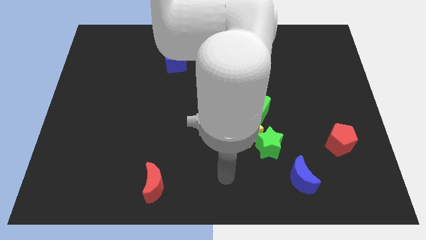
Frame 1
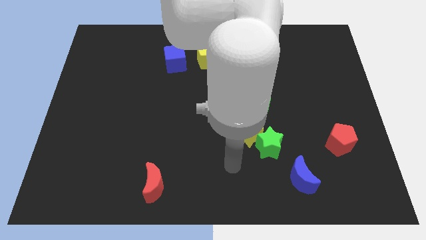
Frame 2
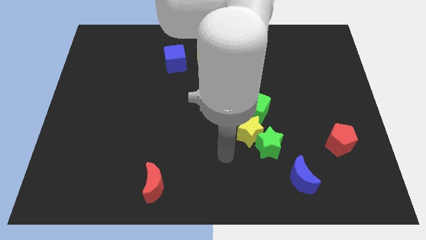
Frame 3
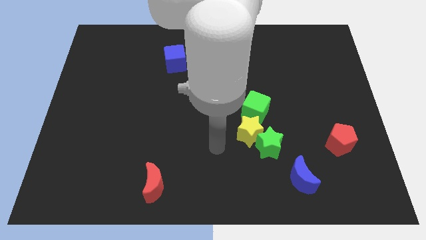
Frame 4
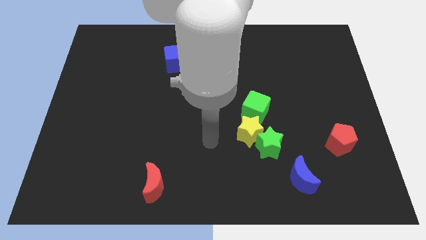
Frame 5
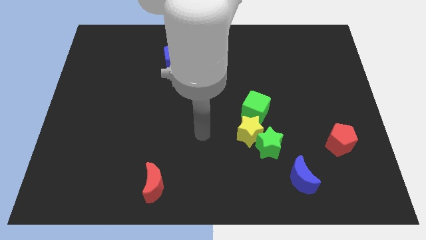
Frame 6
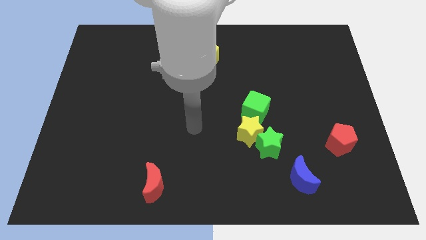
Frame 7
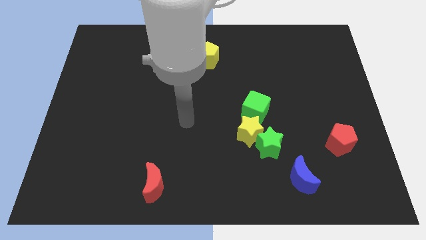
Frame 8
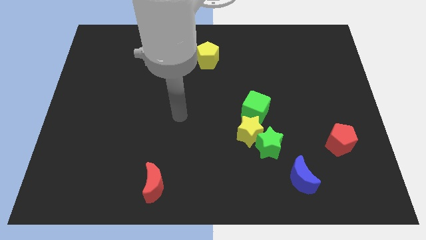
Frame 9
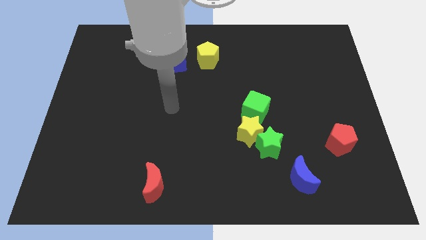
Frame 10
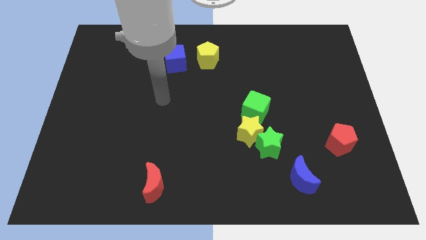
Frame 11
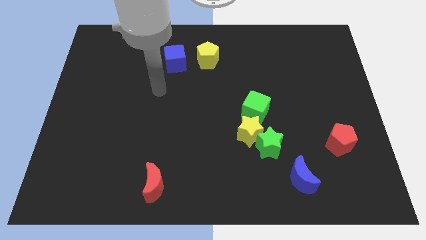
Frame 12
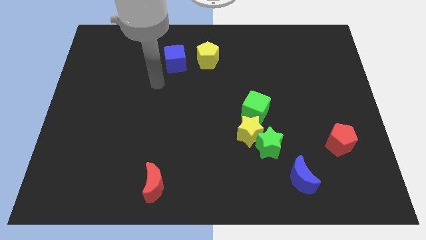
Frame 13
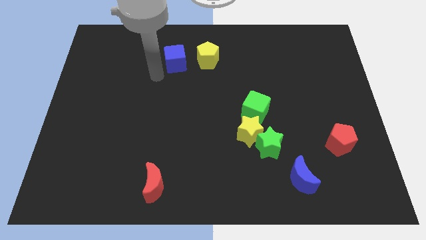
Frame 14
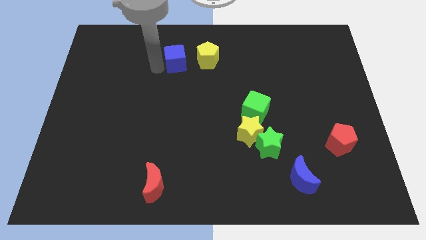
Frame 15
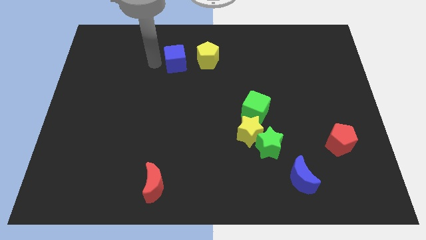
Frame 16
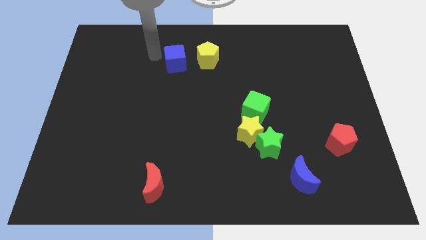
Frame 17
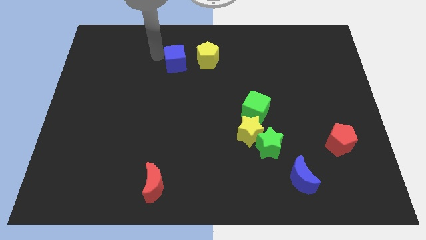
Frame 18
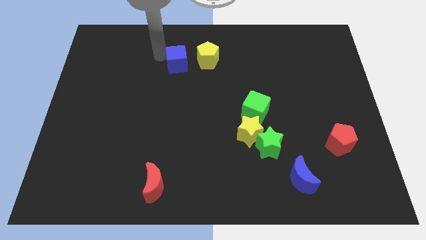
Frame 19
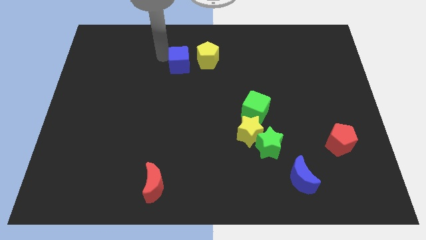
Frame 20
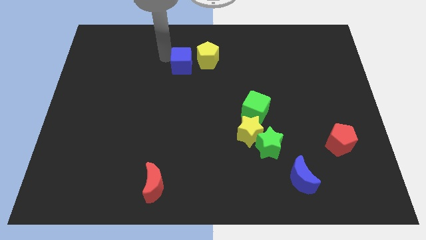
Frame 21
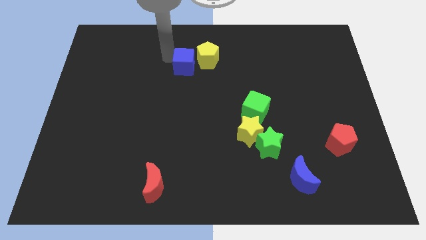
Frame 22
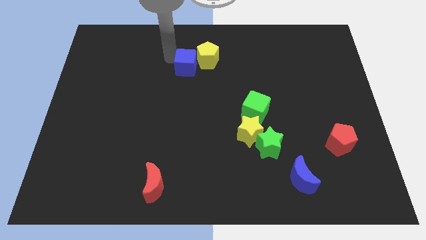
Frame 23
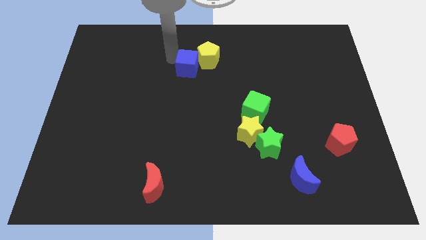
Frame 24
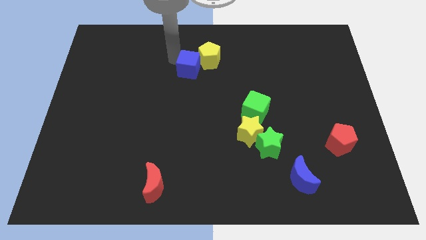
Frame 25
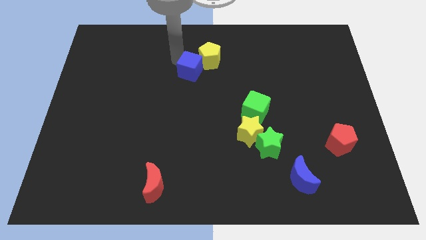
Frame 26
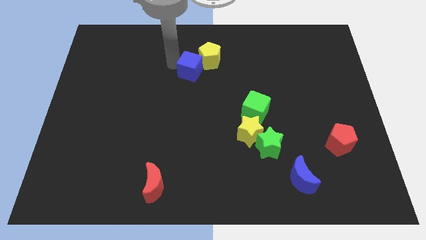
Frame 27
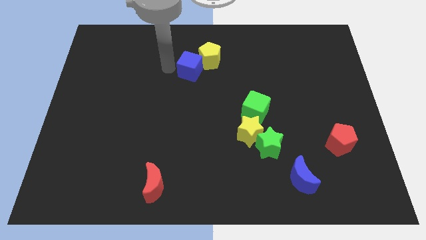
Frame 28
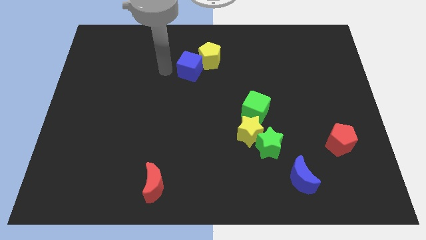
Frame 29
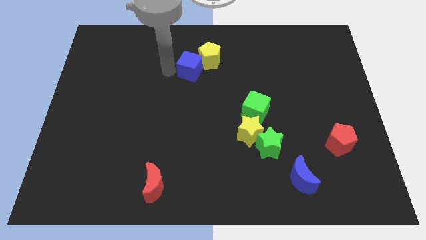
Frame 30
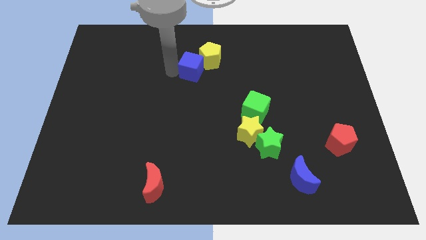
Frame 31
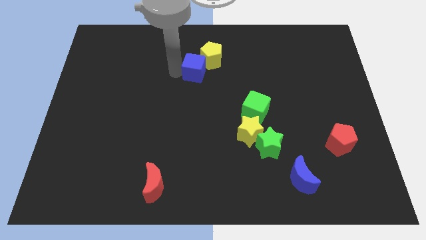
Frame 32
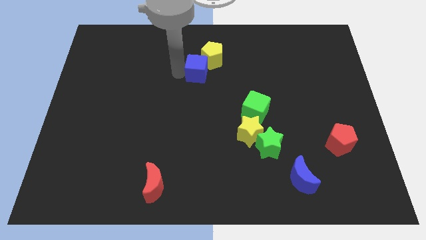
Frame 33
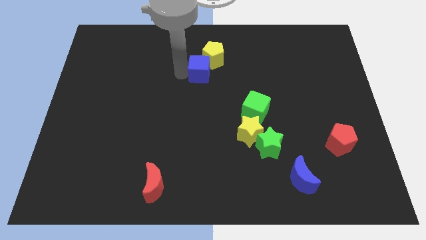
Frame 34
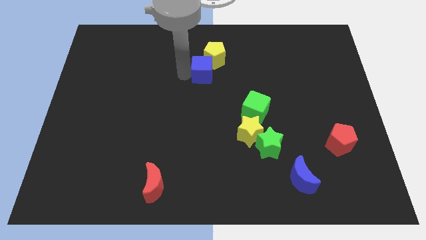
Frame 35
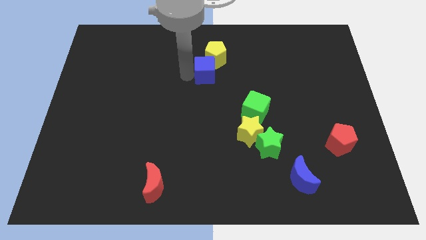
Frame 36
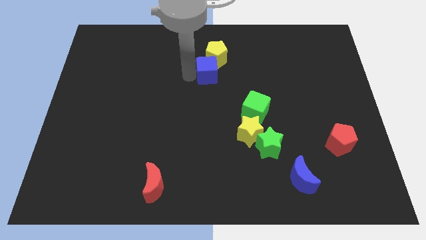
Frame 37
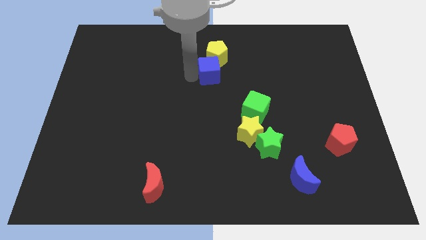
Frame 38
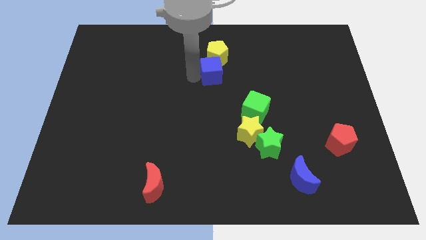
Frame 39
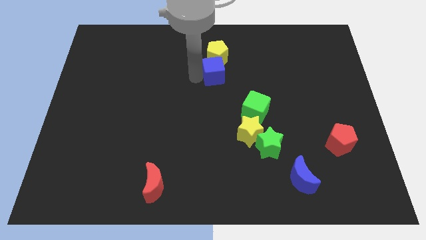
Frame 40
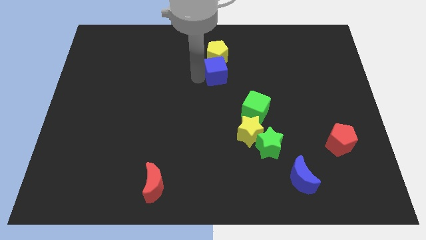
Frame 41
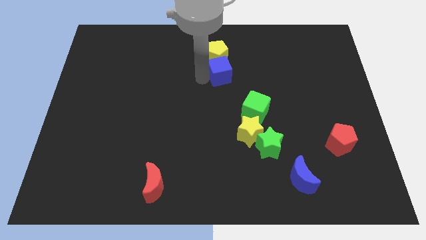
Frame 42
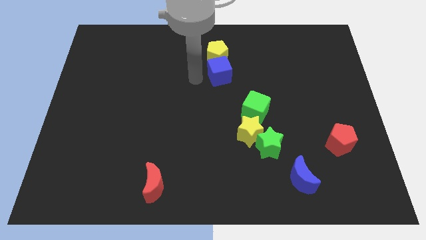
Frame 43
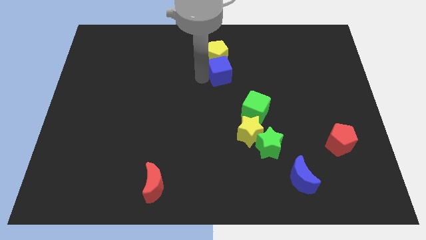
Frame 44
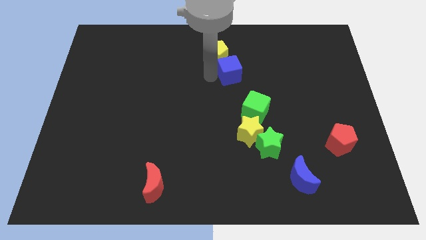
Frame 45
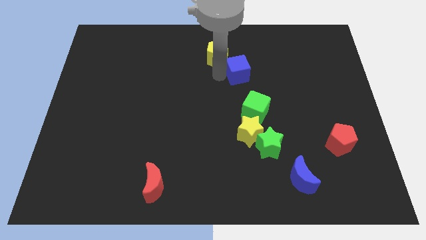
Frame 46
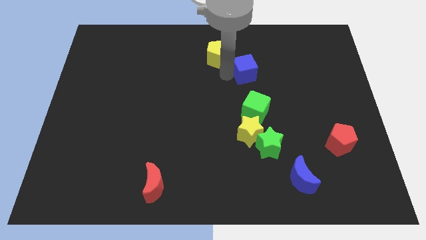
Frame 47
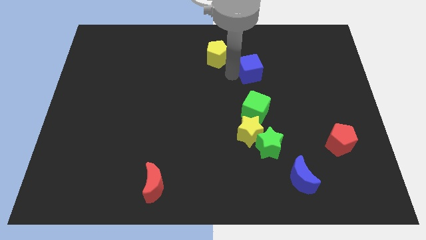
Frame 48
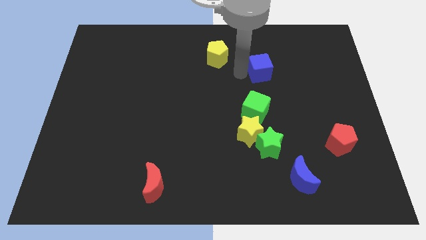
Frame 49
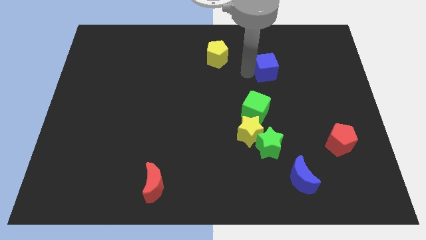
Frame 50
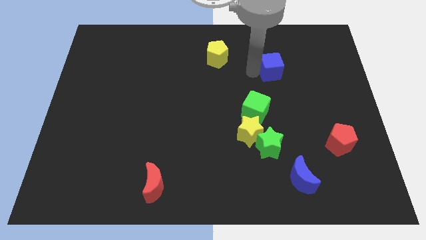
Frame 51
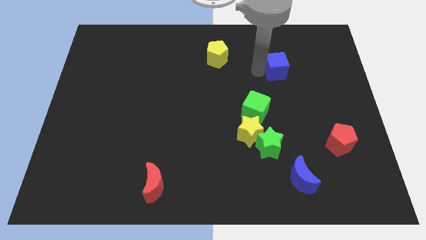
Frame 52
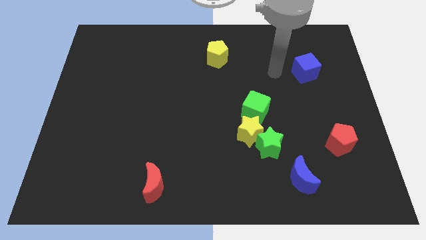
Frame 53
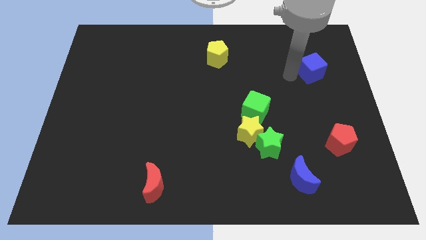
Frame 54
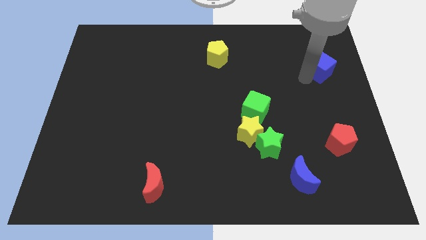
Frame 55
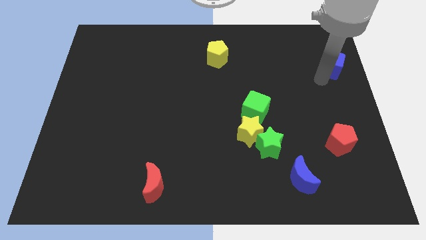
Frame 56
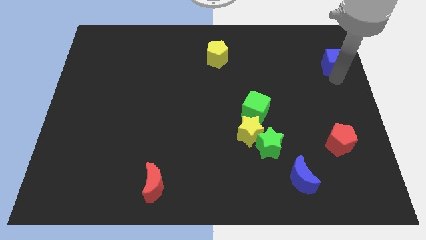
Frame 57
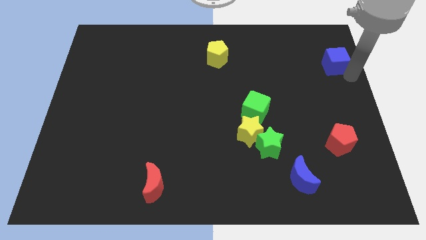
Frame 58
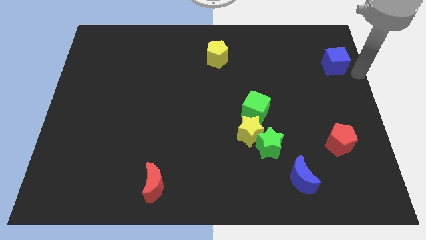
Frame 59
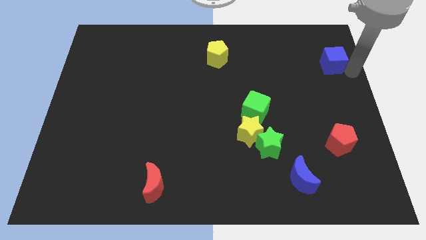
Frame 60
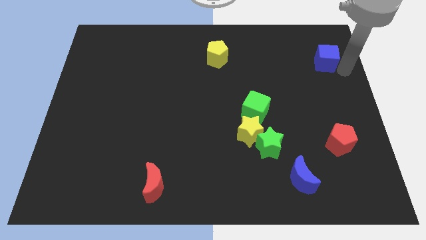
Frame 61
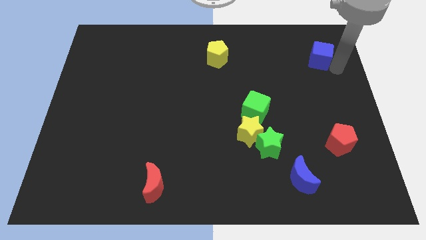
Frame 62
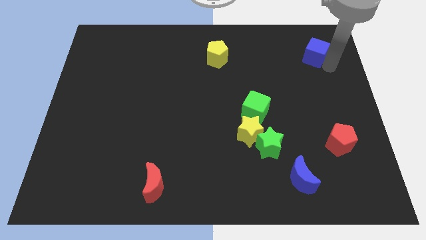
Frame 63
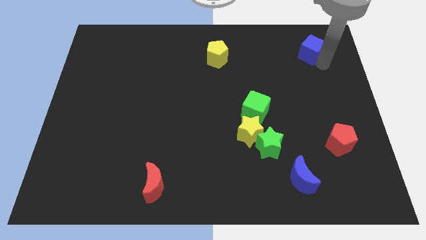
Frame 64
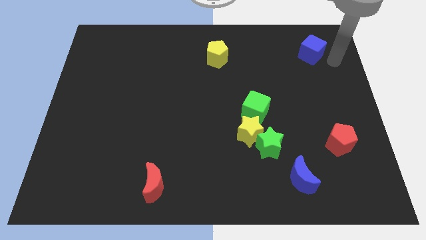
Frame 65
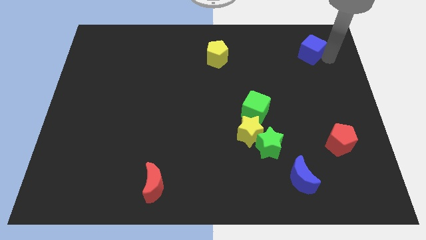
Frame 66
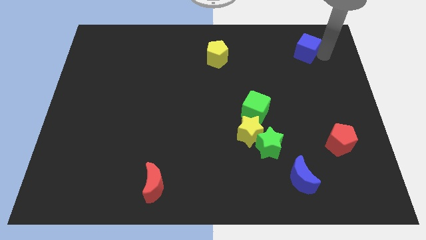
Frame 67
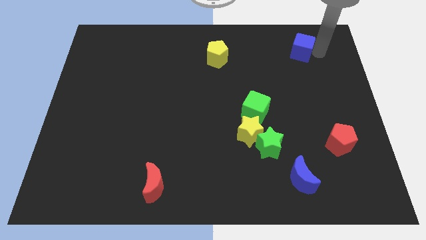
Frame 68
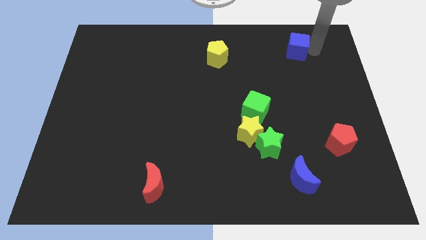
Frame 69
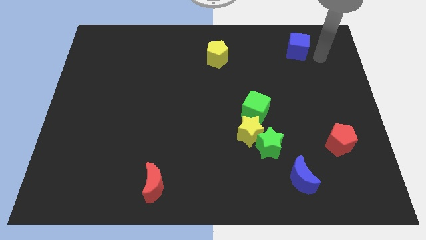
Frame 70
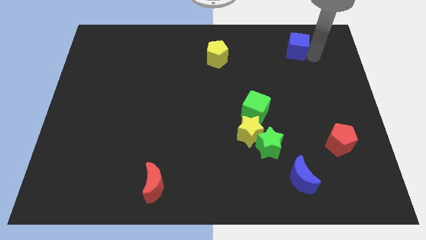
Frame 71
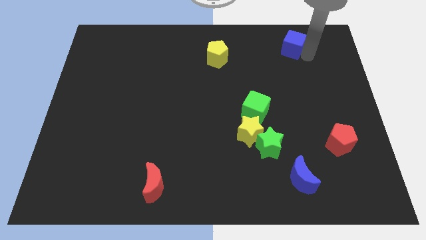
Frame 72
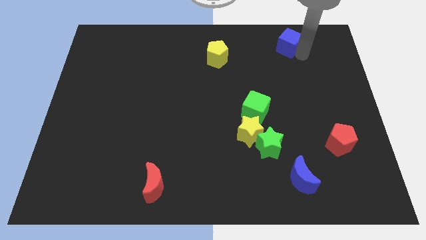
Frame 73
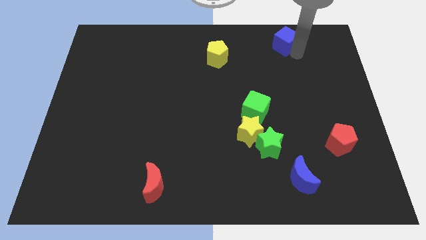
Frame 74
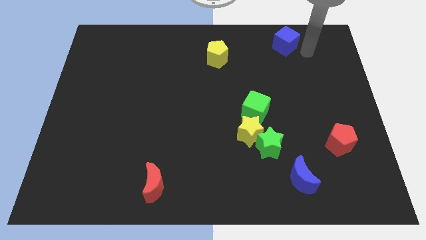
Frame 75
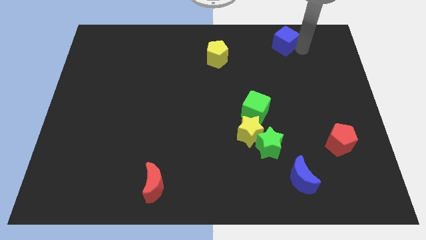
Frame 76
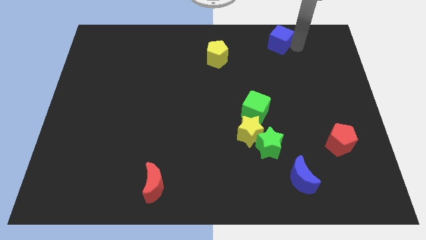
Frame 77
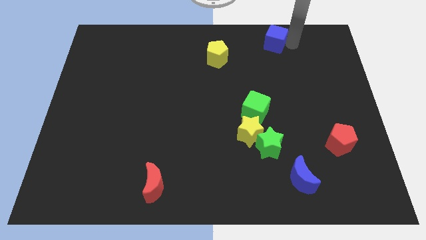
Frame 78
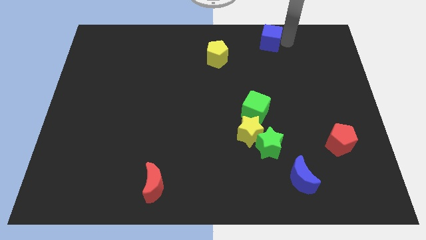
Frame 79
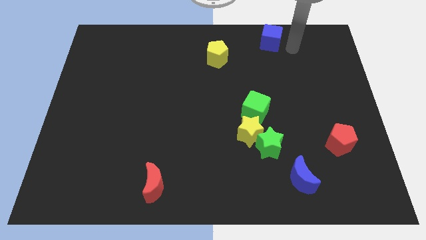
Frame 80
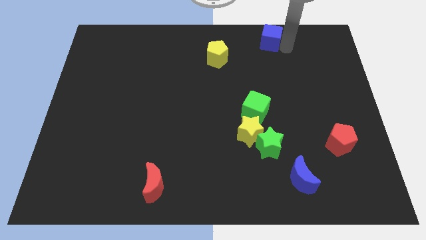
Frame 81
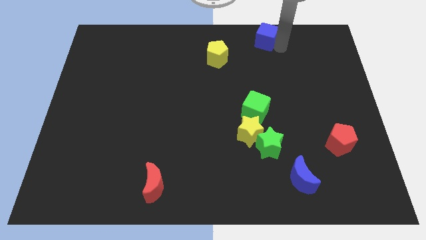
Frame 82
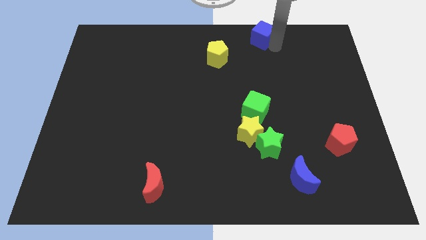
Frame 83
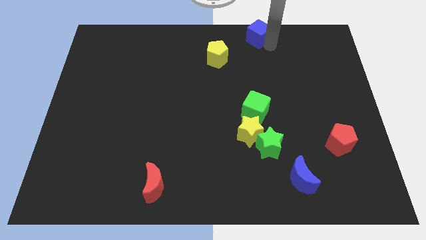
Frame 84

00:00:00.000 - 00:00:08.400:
move the blue cube to the top side
